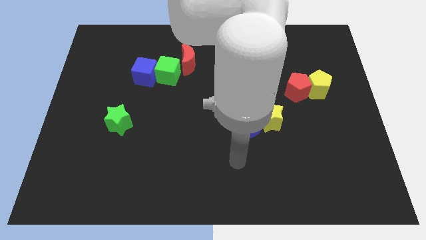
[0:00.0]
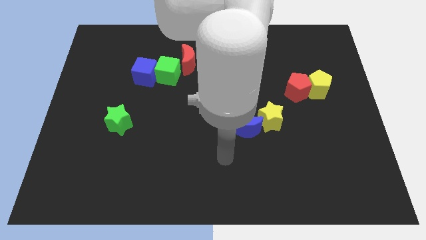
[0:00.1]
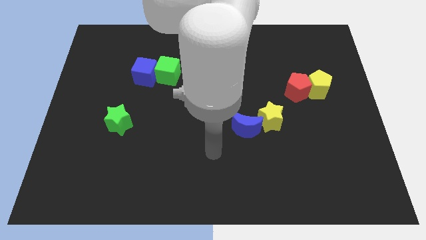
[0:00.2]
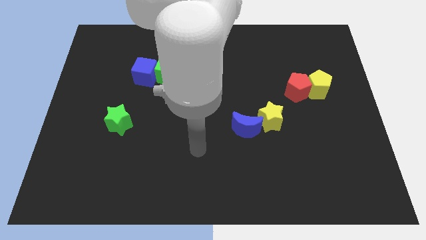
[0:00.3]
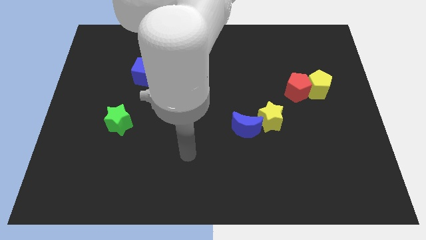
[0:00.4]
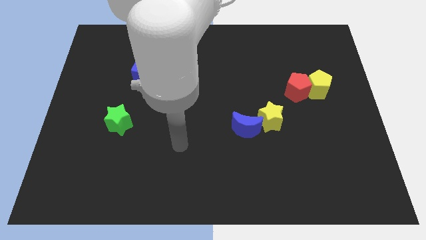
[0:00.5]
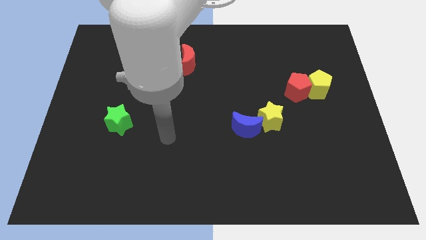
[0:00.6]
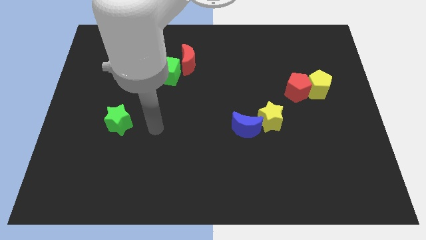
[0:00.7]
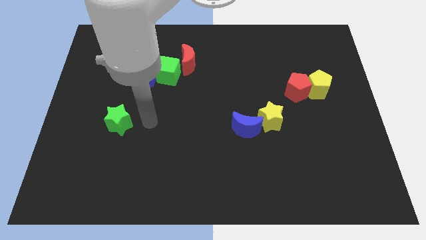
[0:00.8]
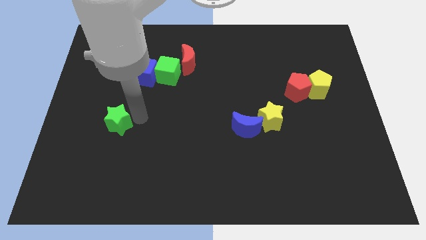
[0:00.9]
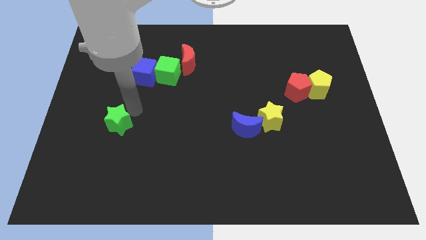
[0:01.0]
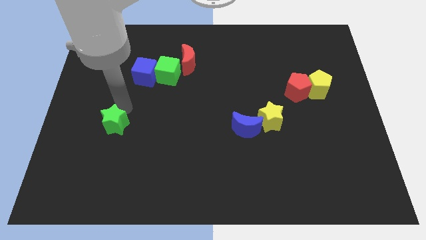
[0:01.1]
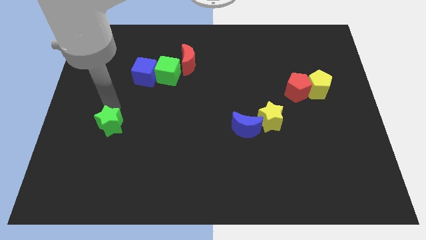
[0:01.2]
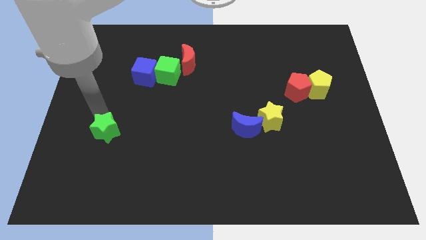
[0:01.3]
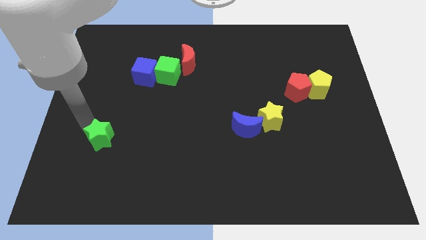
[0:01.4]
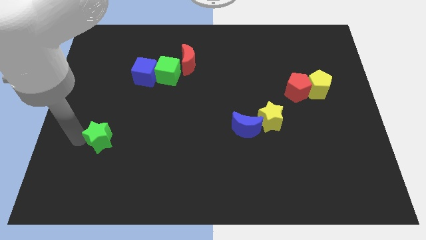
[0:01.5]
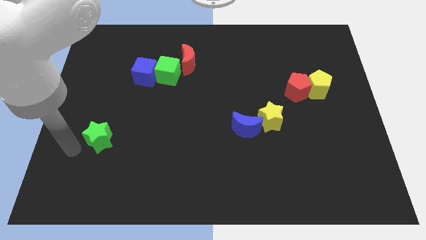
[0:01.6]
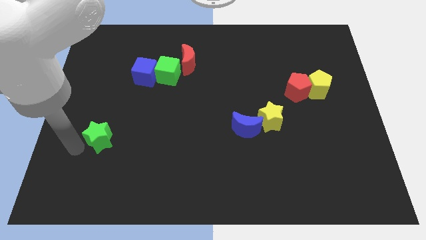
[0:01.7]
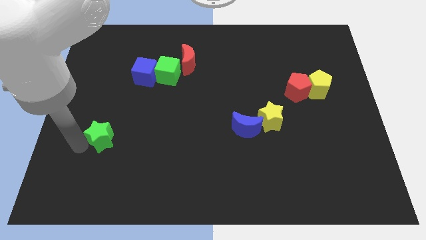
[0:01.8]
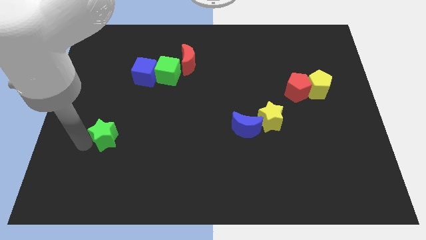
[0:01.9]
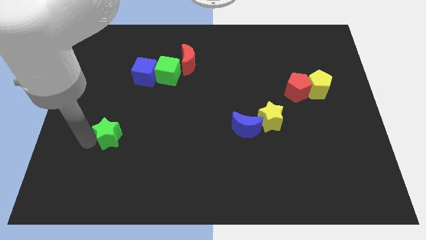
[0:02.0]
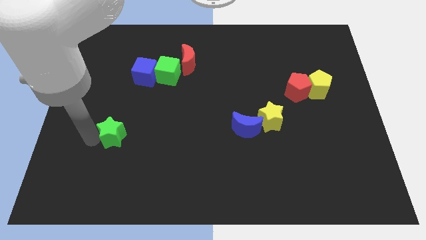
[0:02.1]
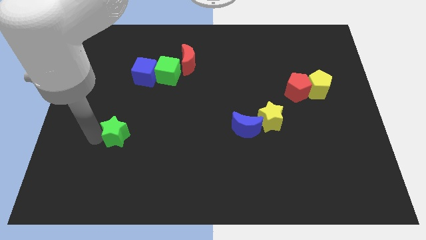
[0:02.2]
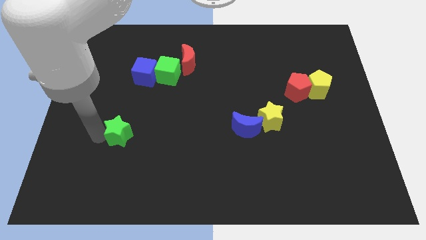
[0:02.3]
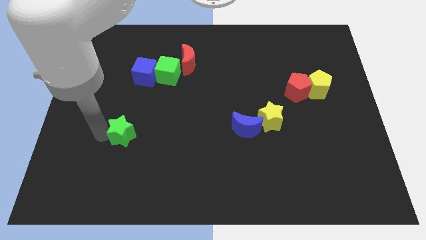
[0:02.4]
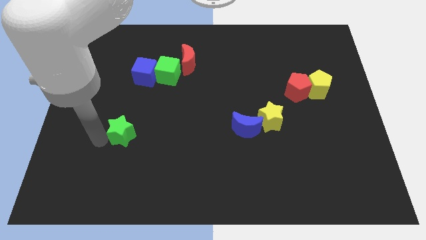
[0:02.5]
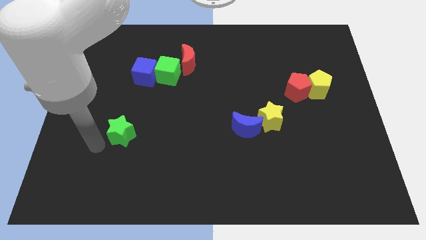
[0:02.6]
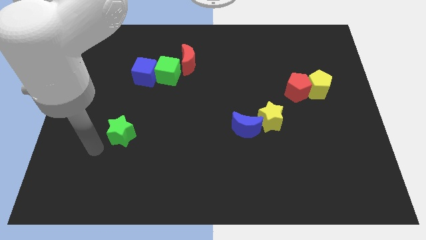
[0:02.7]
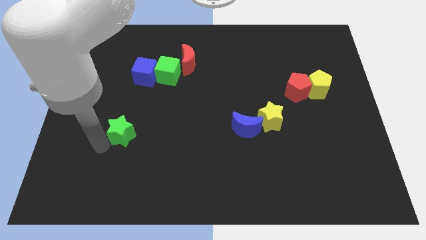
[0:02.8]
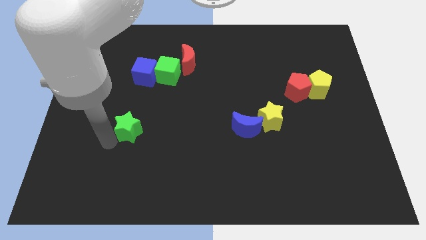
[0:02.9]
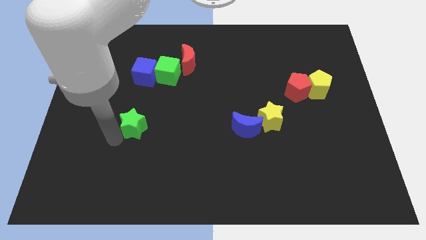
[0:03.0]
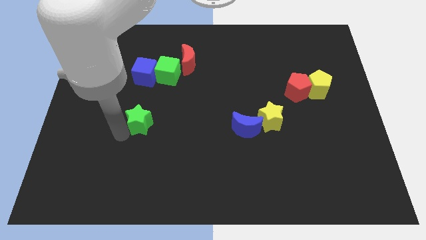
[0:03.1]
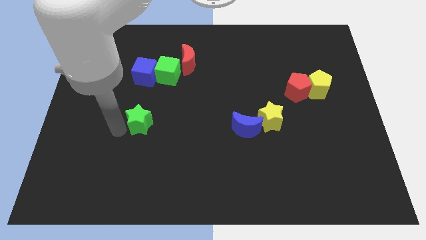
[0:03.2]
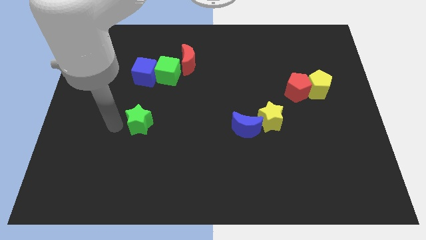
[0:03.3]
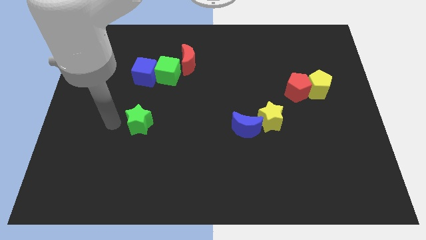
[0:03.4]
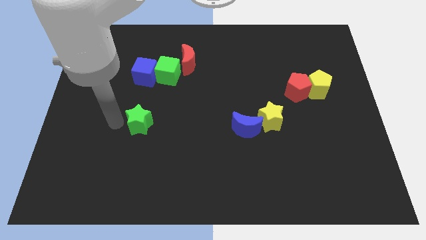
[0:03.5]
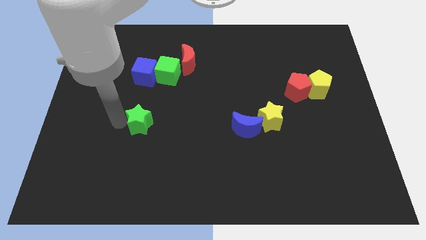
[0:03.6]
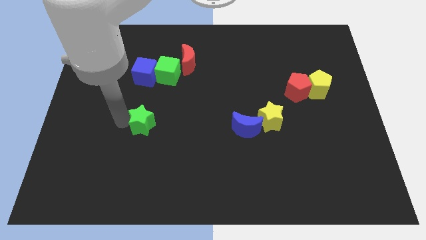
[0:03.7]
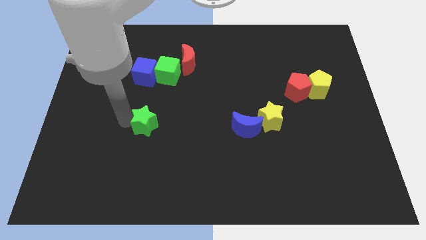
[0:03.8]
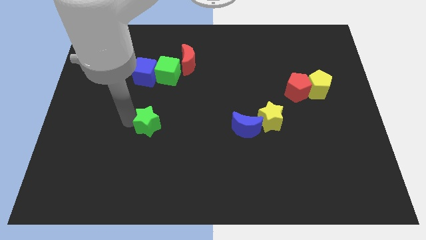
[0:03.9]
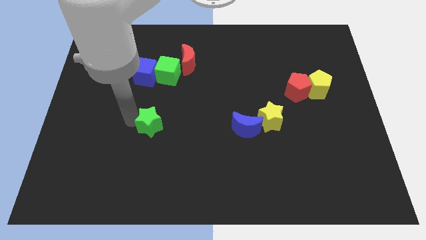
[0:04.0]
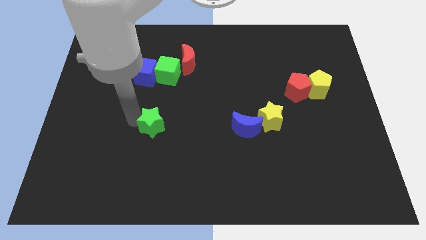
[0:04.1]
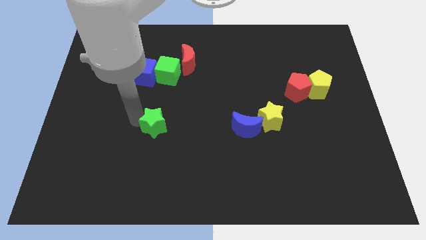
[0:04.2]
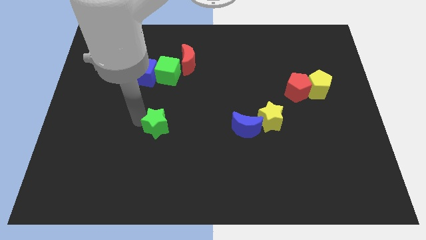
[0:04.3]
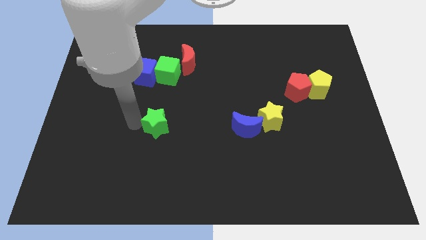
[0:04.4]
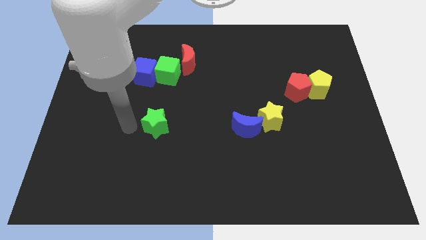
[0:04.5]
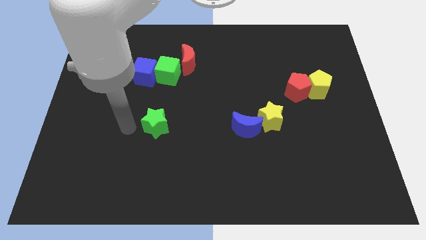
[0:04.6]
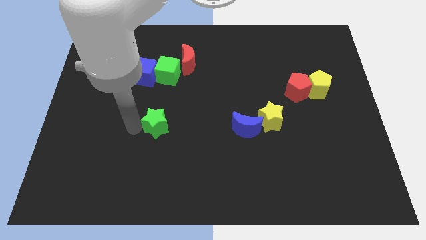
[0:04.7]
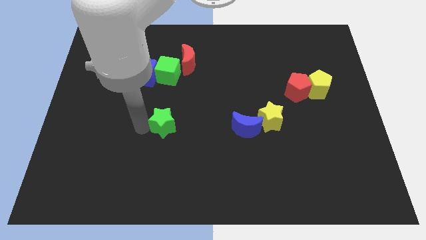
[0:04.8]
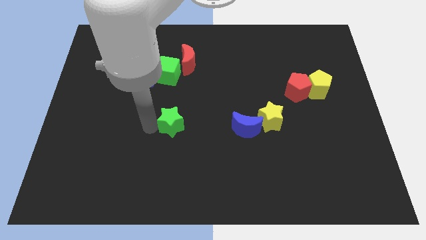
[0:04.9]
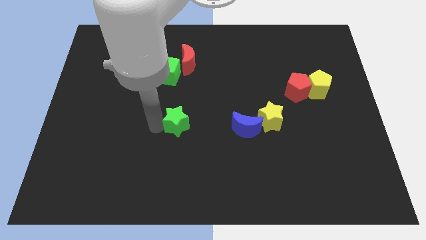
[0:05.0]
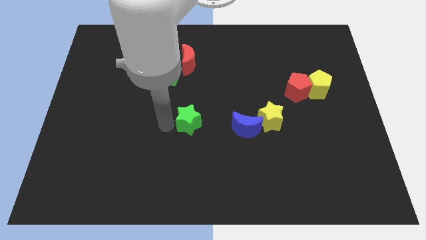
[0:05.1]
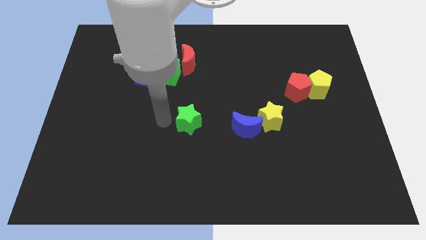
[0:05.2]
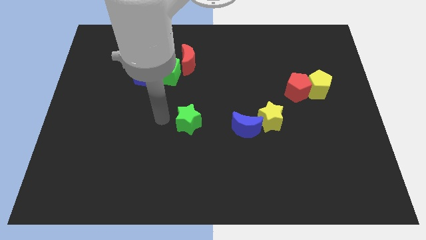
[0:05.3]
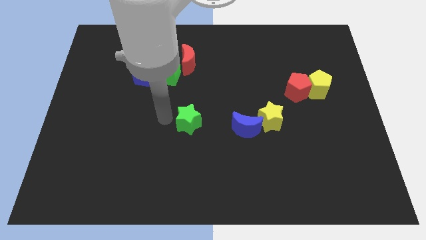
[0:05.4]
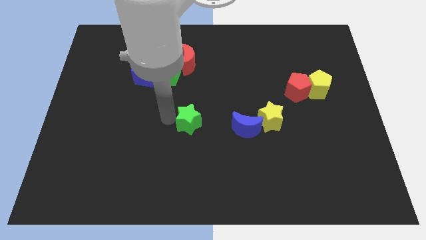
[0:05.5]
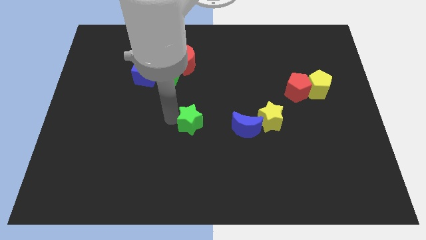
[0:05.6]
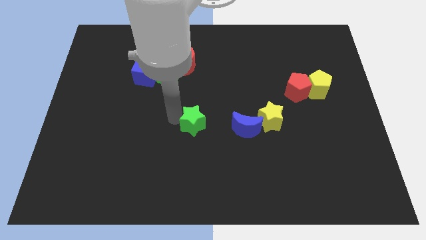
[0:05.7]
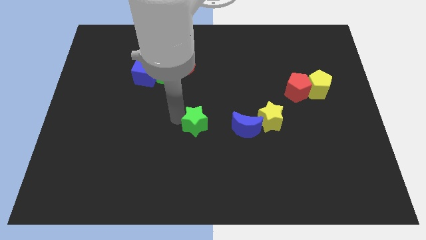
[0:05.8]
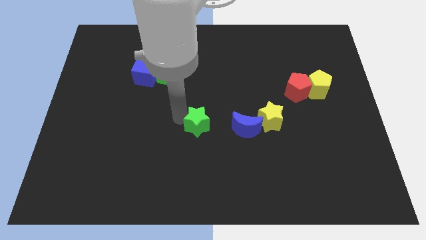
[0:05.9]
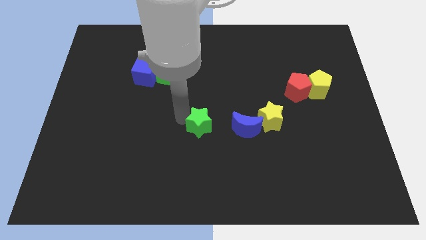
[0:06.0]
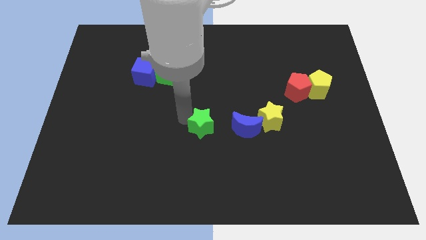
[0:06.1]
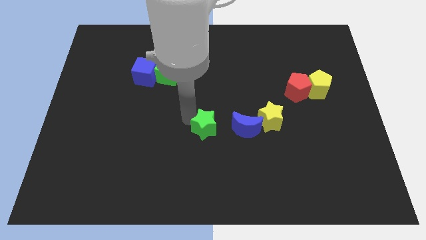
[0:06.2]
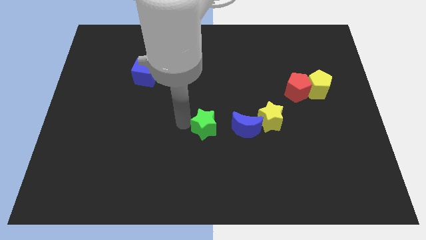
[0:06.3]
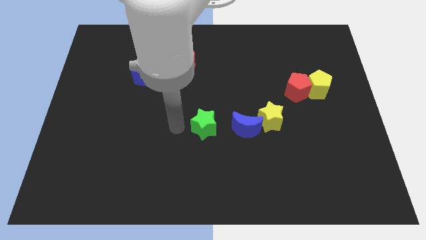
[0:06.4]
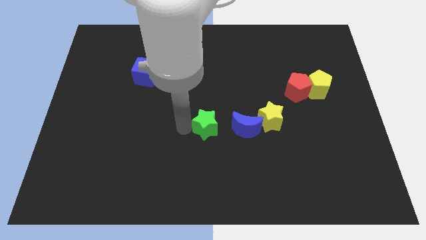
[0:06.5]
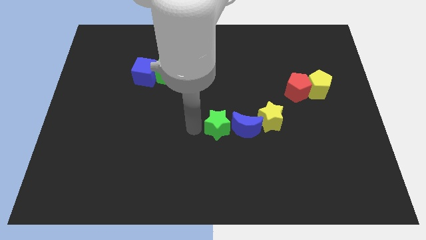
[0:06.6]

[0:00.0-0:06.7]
slide the green star to the blue moon
